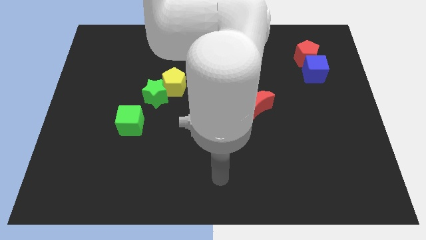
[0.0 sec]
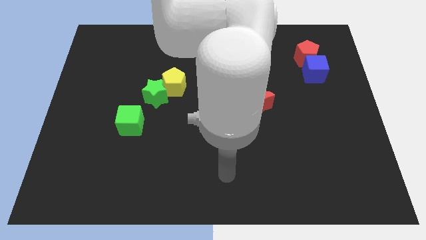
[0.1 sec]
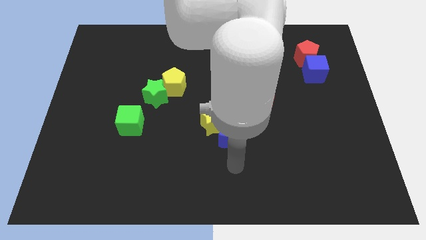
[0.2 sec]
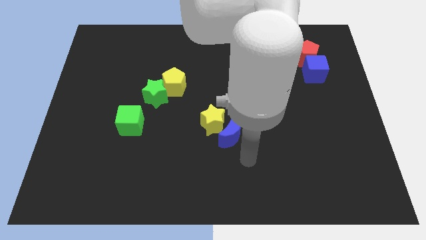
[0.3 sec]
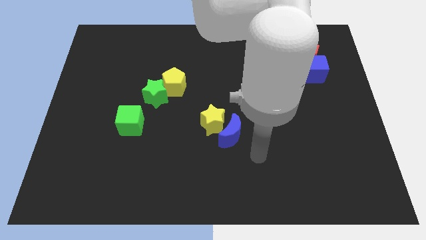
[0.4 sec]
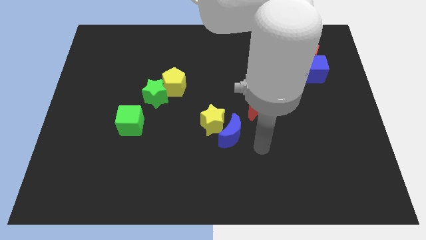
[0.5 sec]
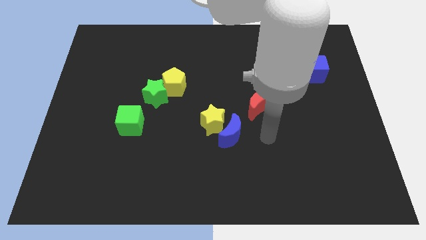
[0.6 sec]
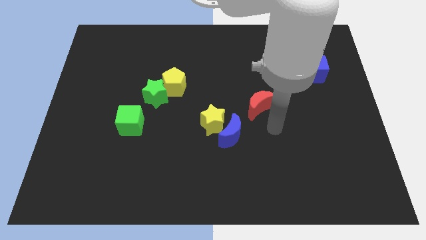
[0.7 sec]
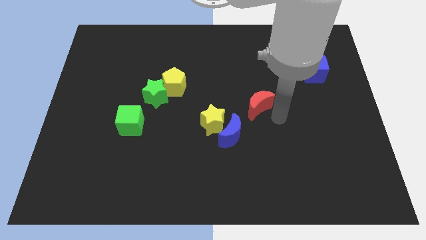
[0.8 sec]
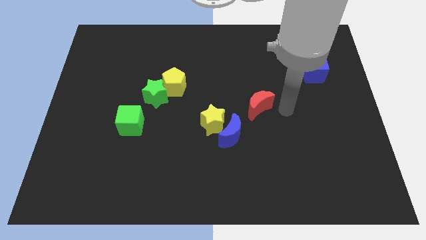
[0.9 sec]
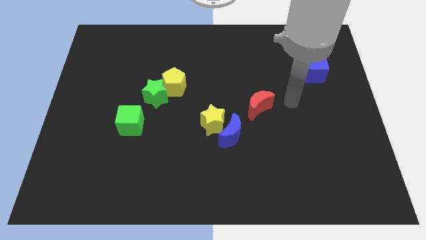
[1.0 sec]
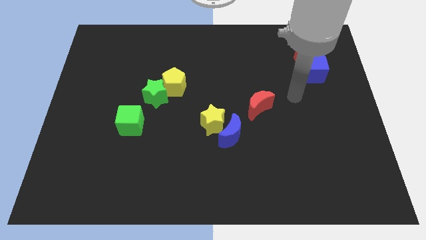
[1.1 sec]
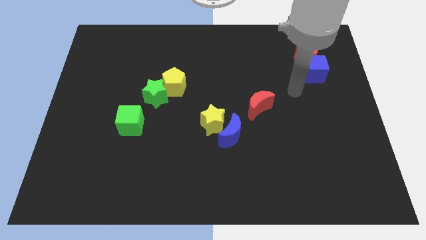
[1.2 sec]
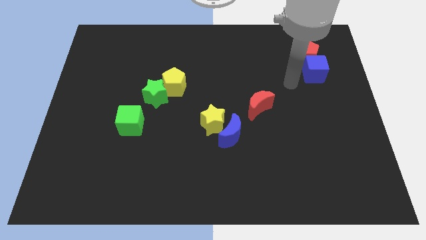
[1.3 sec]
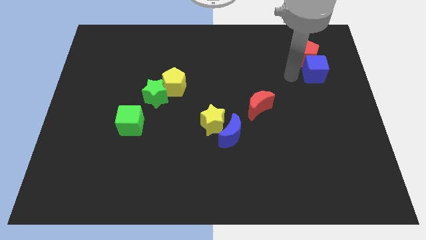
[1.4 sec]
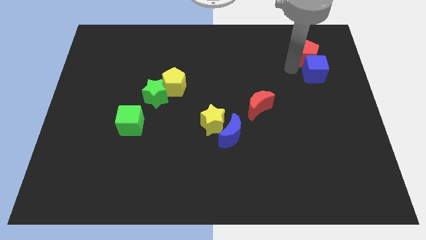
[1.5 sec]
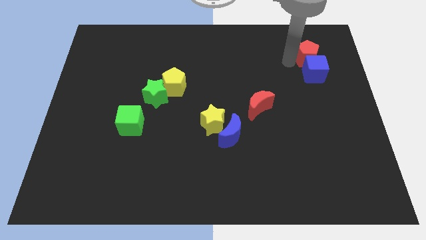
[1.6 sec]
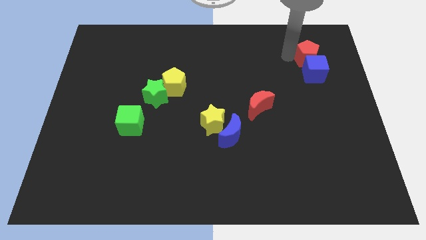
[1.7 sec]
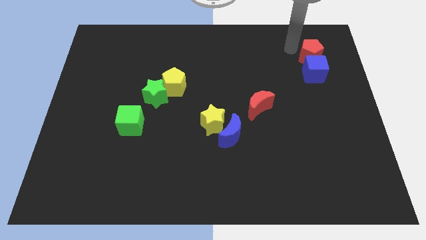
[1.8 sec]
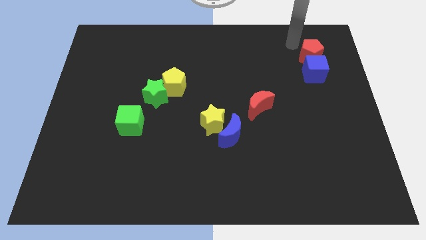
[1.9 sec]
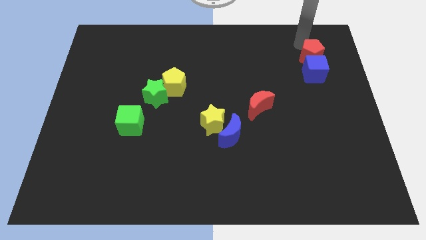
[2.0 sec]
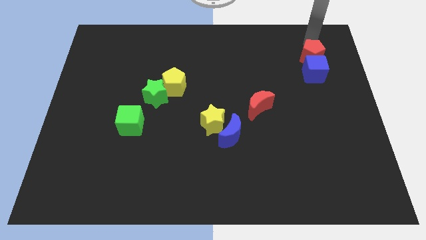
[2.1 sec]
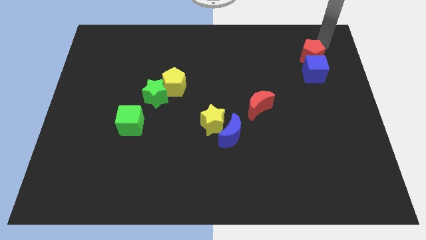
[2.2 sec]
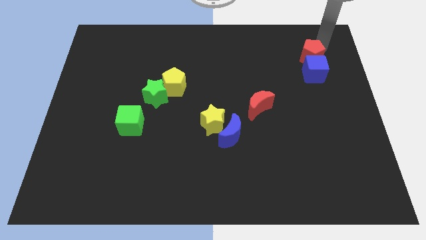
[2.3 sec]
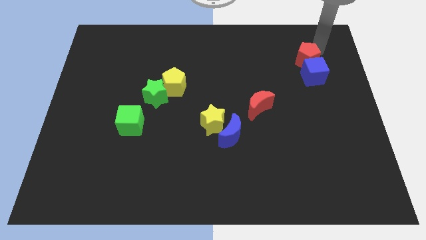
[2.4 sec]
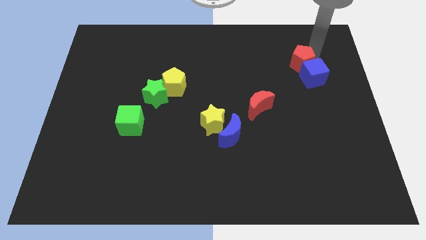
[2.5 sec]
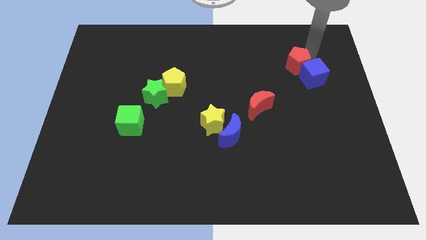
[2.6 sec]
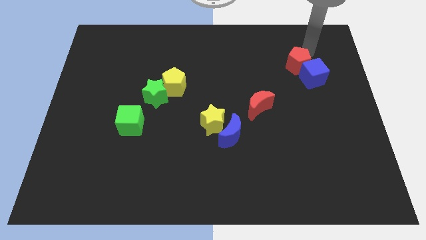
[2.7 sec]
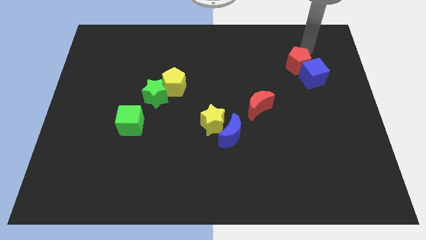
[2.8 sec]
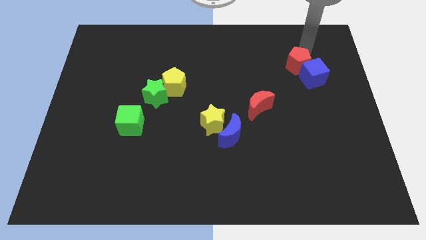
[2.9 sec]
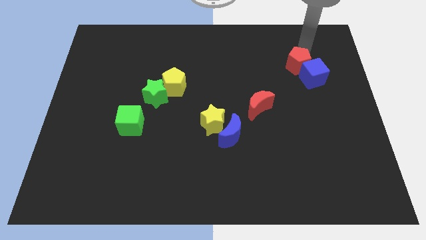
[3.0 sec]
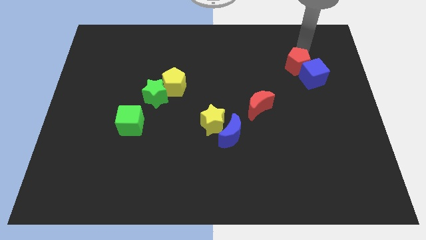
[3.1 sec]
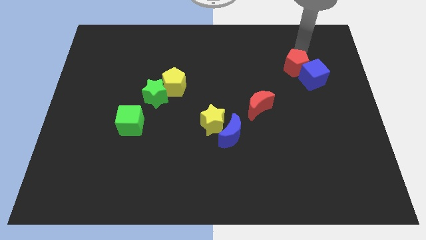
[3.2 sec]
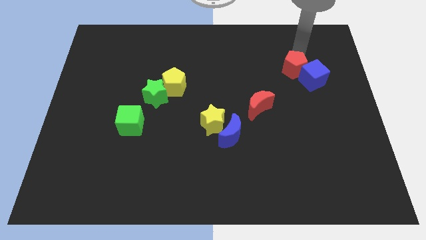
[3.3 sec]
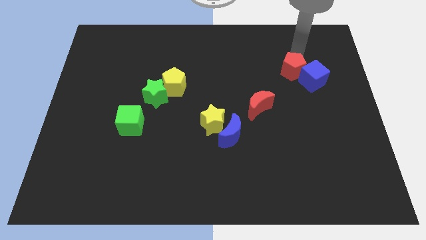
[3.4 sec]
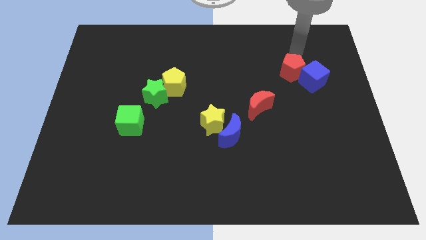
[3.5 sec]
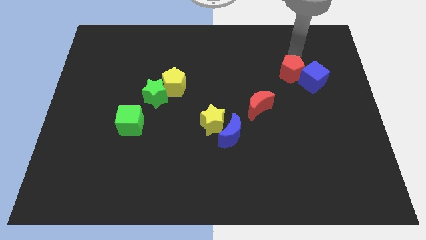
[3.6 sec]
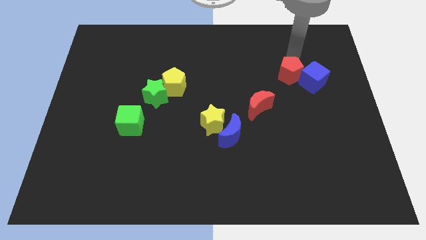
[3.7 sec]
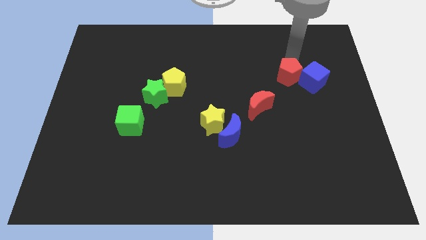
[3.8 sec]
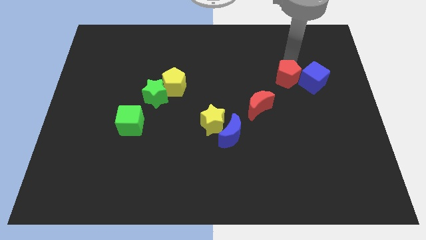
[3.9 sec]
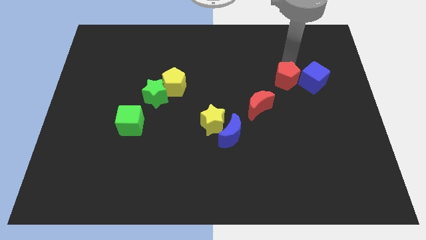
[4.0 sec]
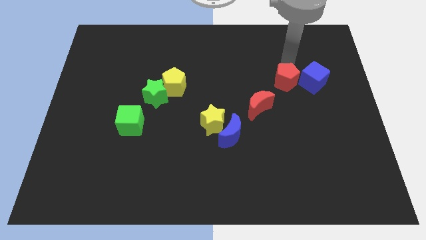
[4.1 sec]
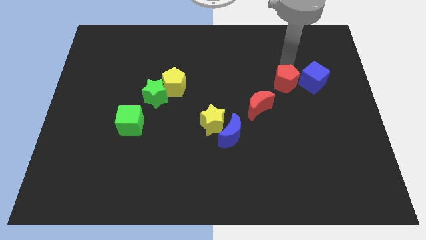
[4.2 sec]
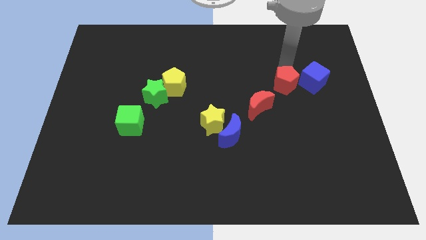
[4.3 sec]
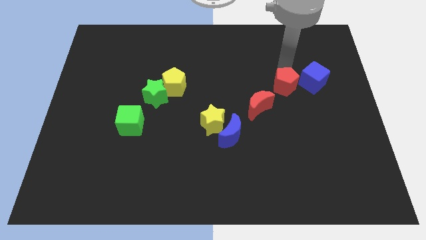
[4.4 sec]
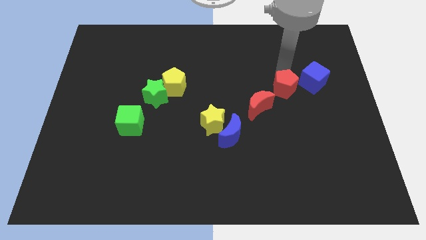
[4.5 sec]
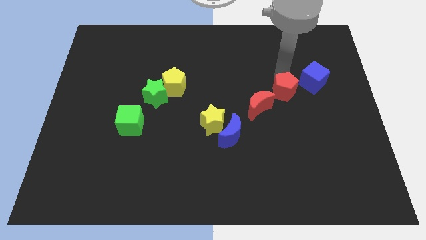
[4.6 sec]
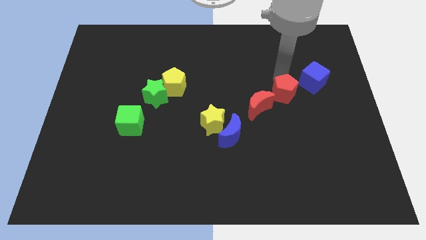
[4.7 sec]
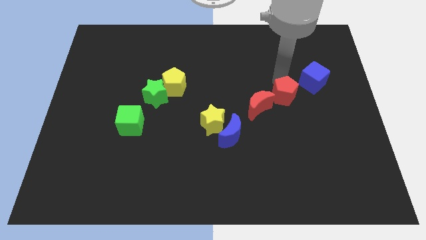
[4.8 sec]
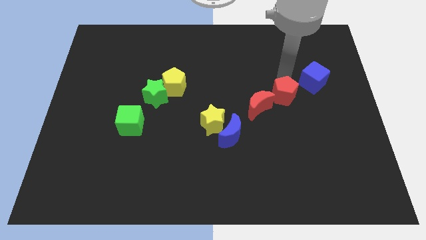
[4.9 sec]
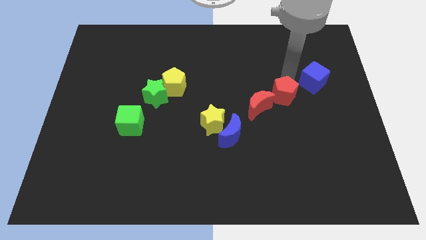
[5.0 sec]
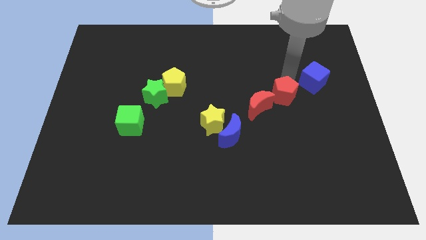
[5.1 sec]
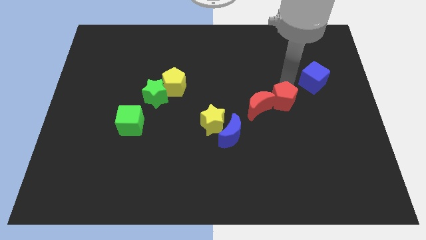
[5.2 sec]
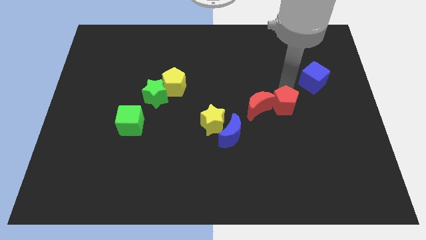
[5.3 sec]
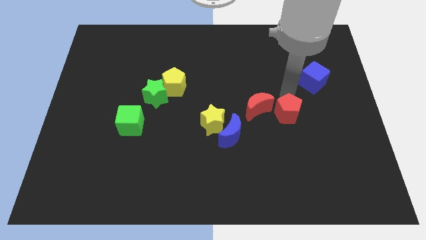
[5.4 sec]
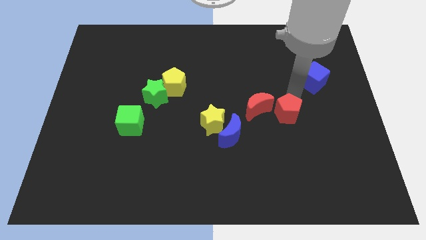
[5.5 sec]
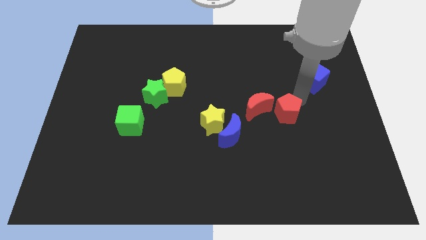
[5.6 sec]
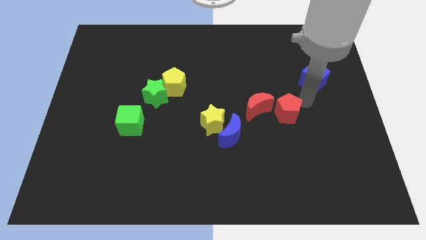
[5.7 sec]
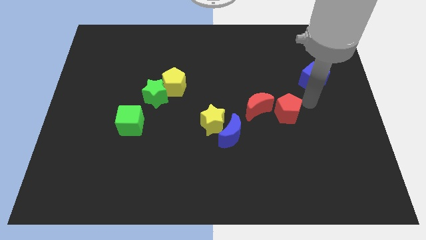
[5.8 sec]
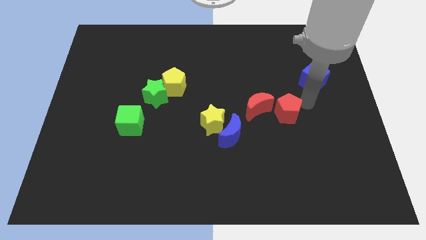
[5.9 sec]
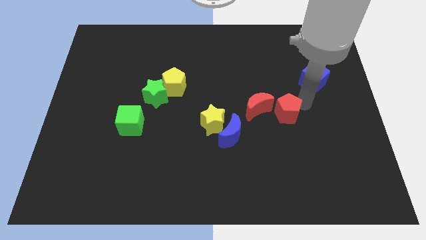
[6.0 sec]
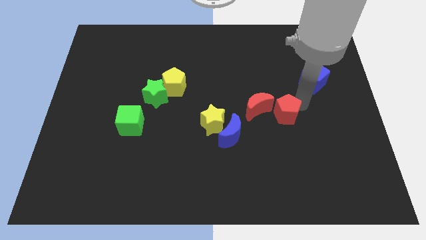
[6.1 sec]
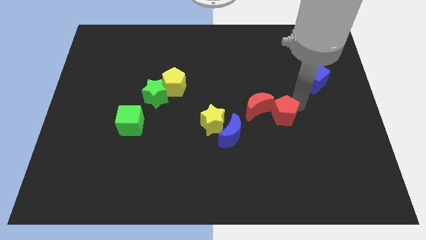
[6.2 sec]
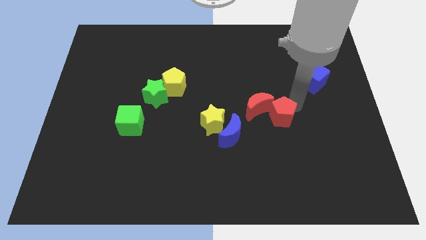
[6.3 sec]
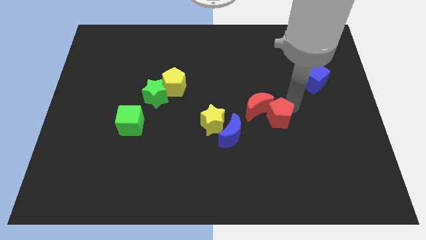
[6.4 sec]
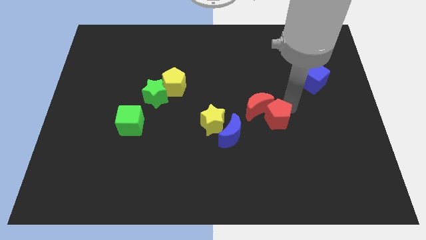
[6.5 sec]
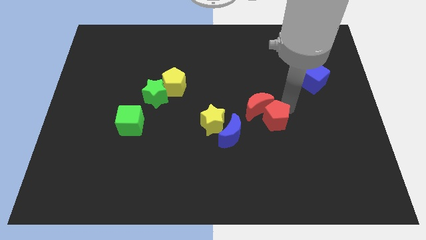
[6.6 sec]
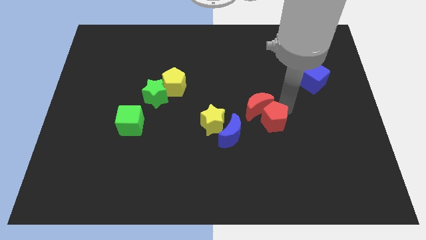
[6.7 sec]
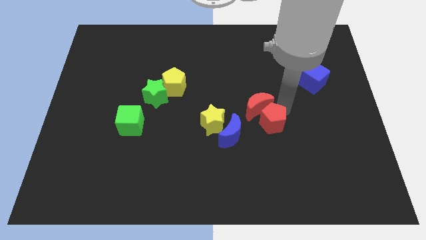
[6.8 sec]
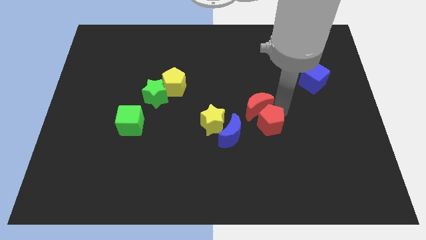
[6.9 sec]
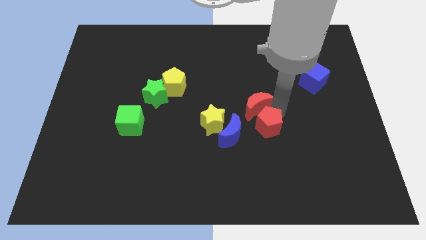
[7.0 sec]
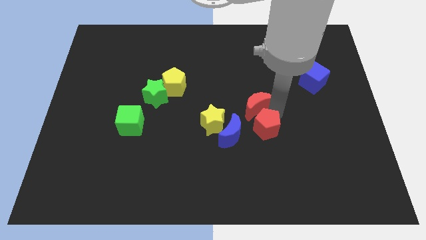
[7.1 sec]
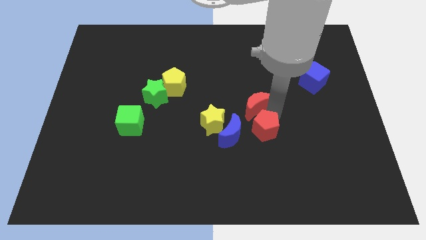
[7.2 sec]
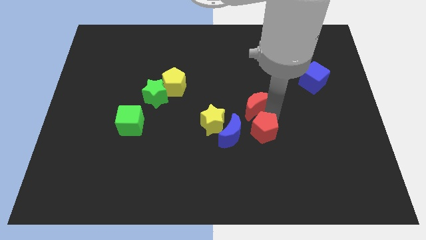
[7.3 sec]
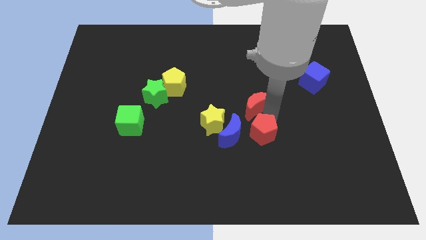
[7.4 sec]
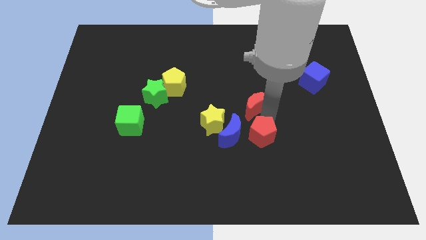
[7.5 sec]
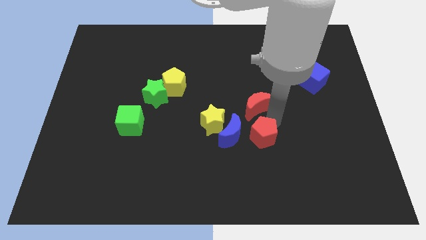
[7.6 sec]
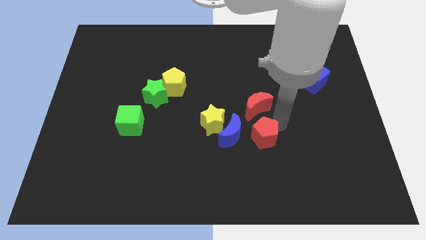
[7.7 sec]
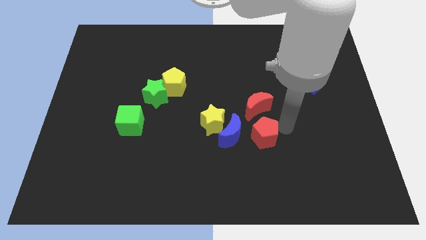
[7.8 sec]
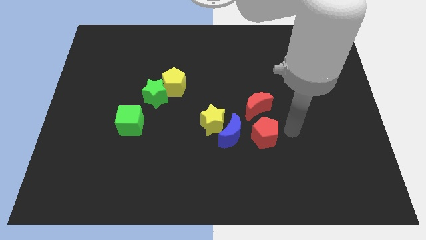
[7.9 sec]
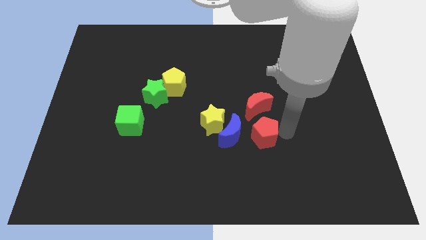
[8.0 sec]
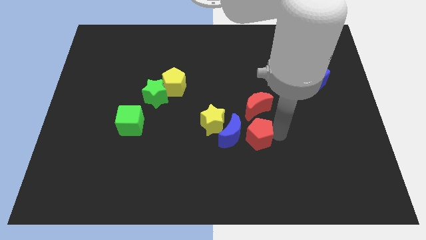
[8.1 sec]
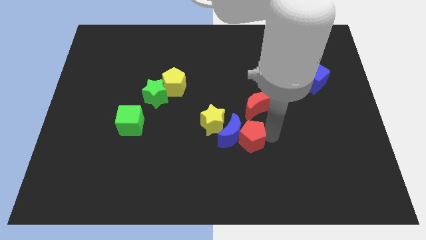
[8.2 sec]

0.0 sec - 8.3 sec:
push the red pentagon to the bottom right side of the yellow star
